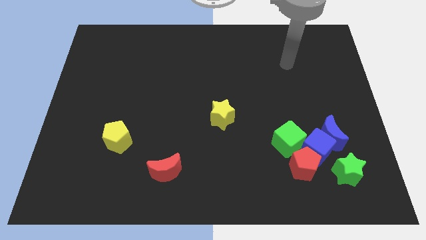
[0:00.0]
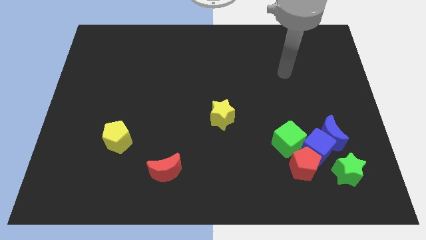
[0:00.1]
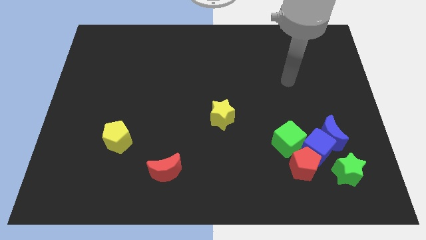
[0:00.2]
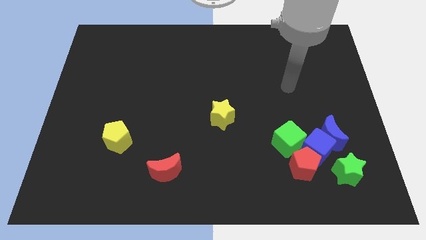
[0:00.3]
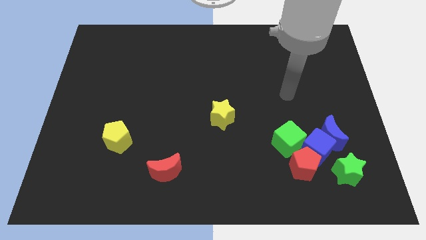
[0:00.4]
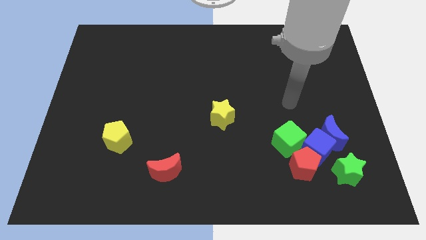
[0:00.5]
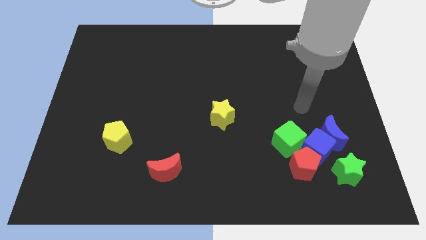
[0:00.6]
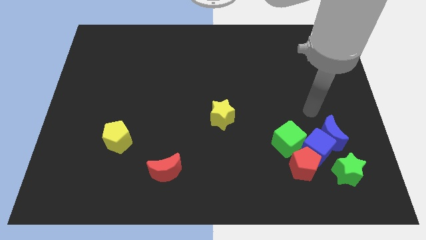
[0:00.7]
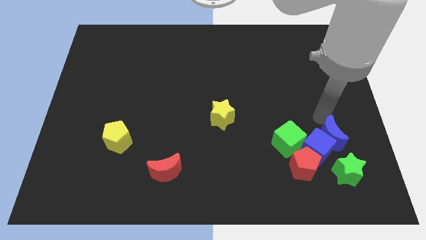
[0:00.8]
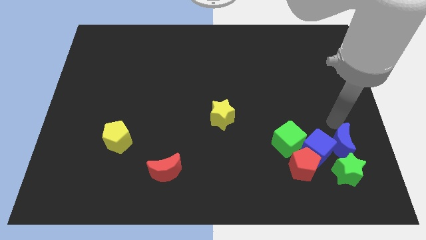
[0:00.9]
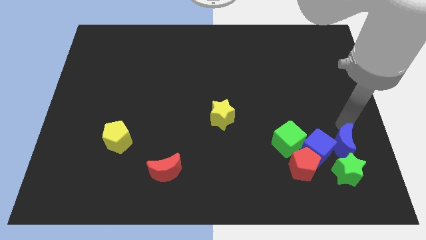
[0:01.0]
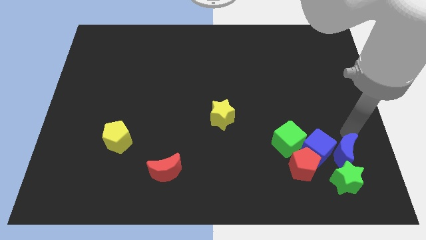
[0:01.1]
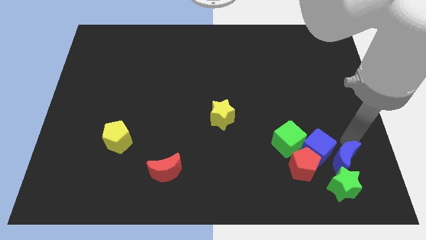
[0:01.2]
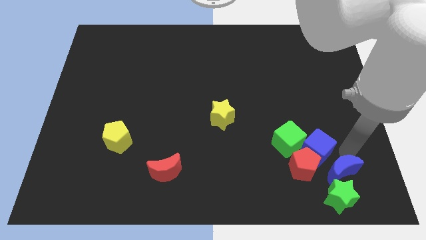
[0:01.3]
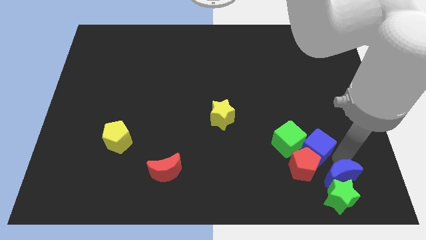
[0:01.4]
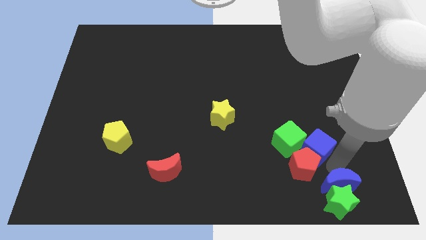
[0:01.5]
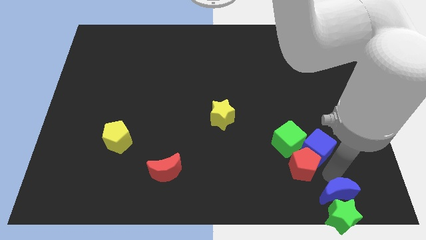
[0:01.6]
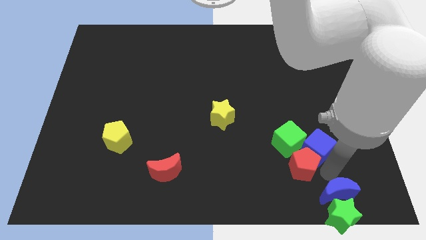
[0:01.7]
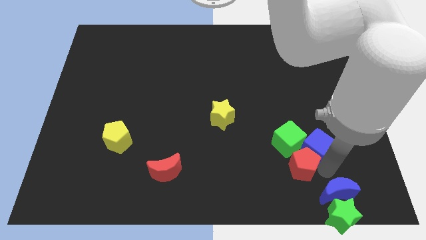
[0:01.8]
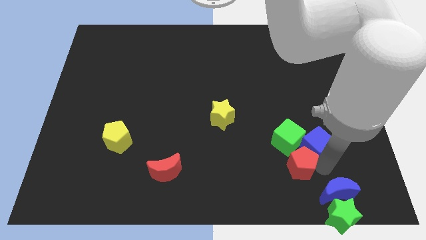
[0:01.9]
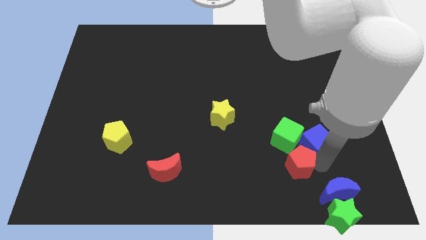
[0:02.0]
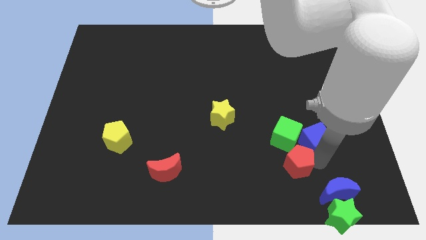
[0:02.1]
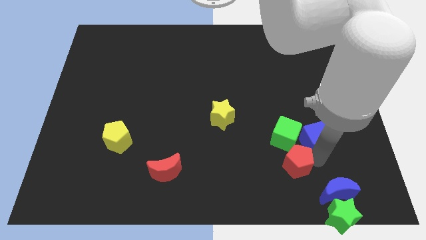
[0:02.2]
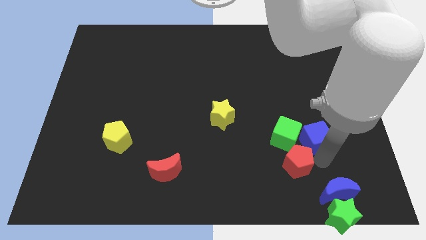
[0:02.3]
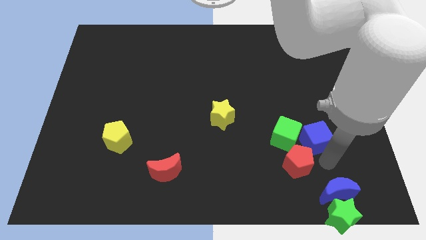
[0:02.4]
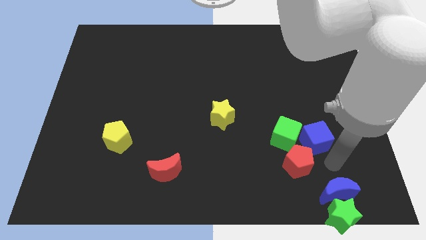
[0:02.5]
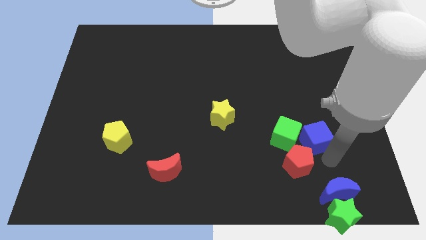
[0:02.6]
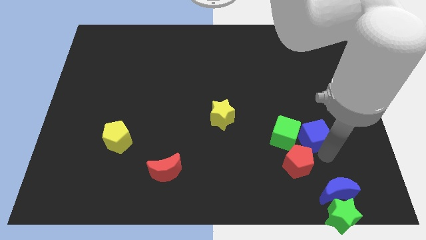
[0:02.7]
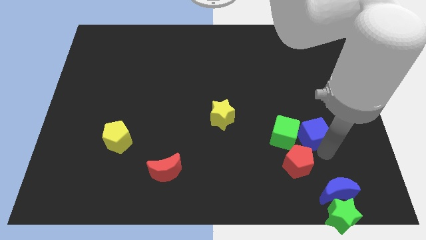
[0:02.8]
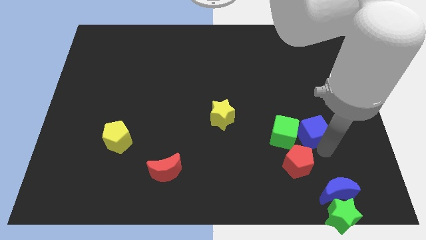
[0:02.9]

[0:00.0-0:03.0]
move the blue cube away from the group

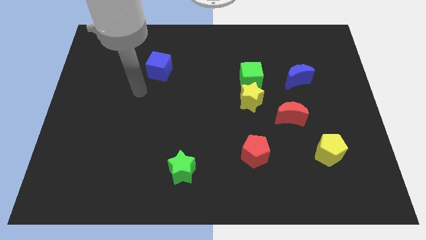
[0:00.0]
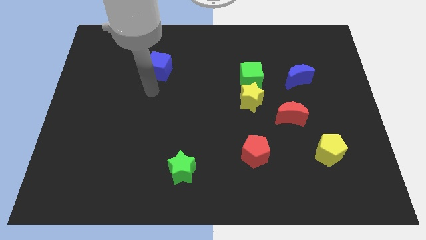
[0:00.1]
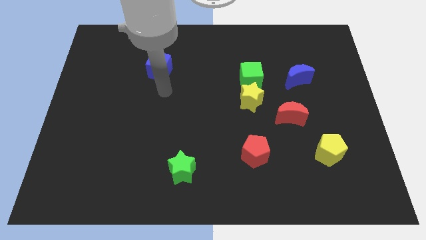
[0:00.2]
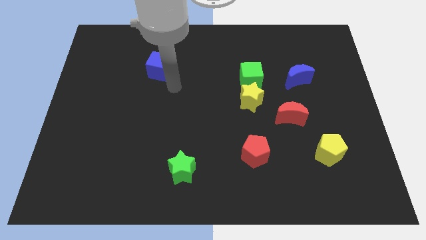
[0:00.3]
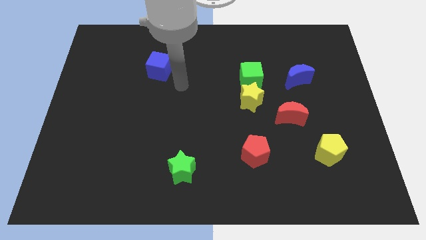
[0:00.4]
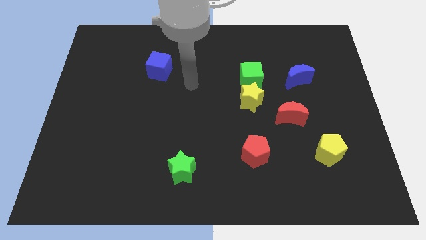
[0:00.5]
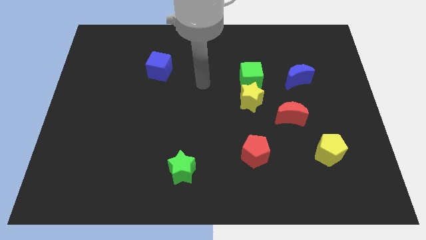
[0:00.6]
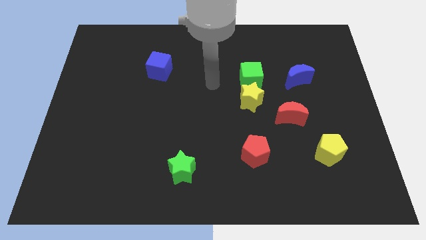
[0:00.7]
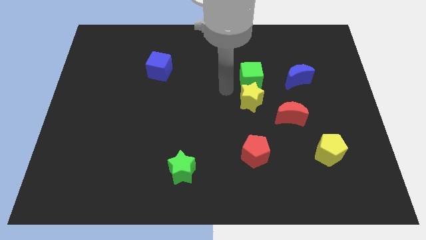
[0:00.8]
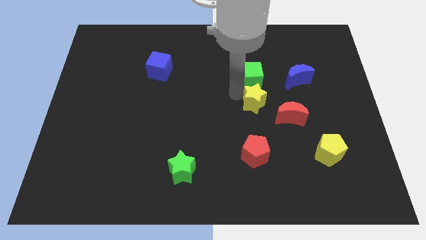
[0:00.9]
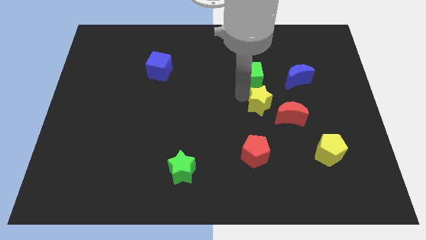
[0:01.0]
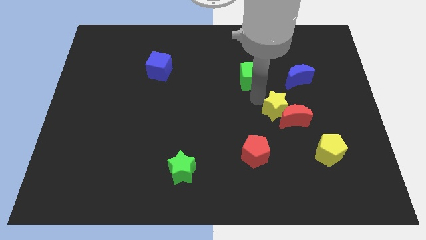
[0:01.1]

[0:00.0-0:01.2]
separate the green cube from the yellow star

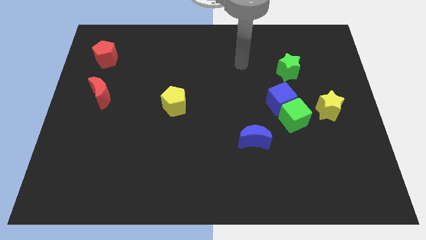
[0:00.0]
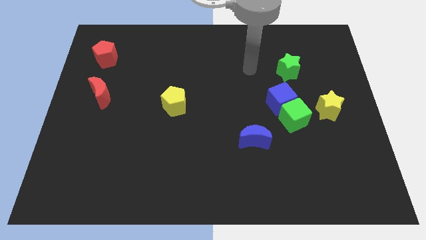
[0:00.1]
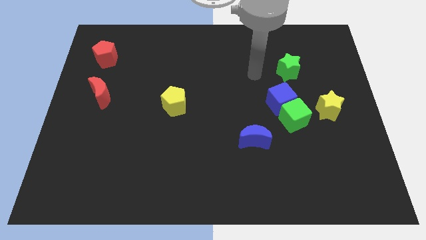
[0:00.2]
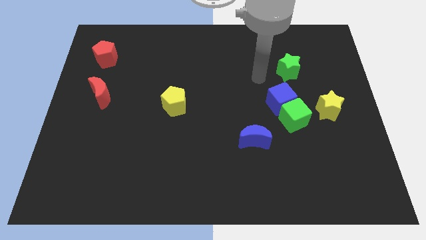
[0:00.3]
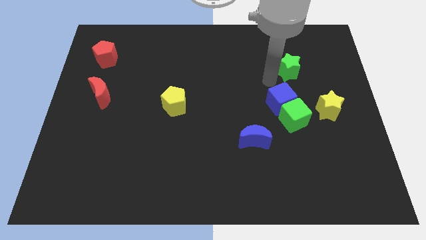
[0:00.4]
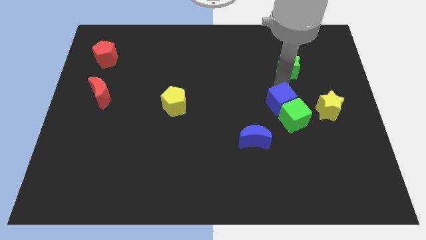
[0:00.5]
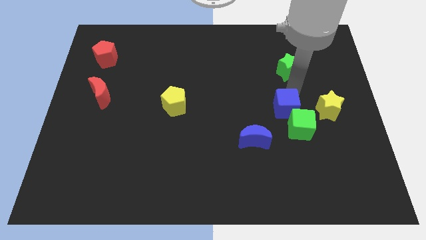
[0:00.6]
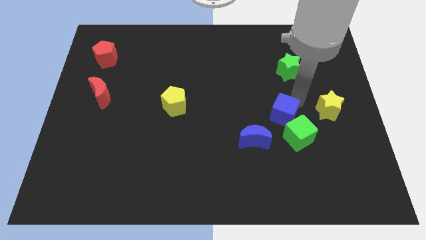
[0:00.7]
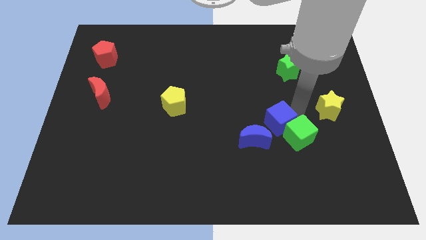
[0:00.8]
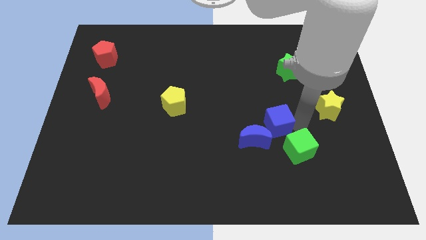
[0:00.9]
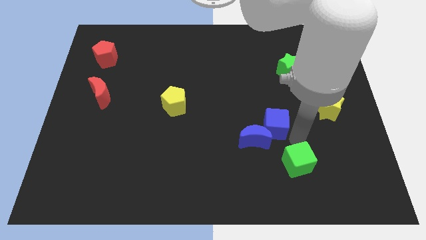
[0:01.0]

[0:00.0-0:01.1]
pull the blue cube apart from the green cube

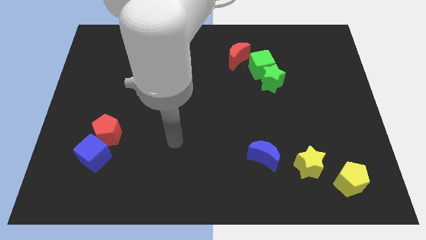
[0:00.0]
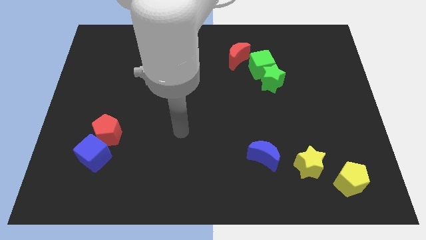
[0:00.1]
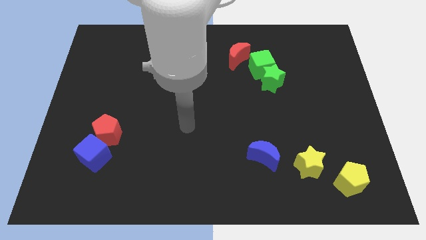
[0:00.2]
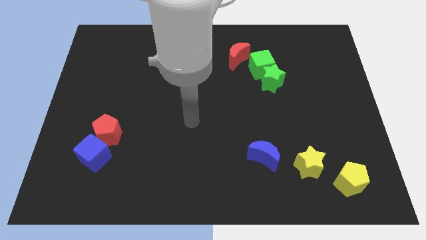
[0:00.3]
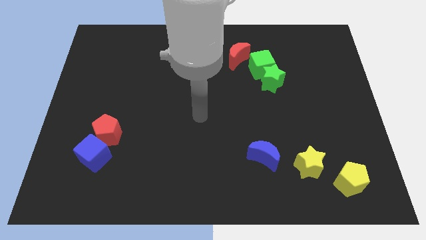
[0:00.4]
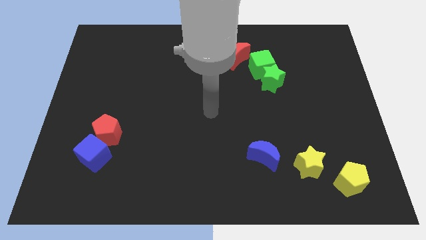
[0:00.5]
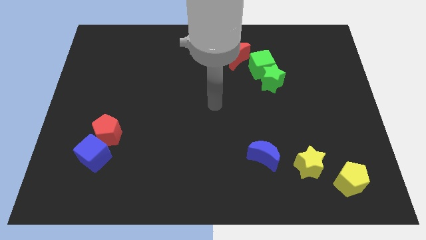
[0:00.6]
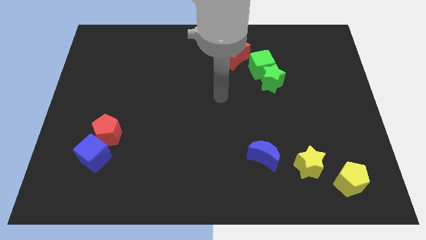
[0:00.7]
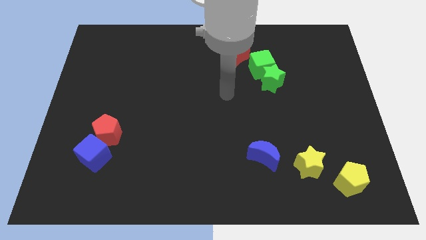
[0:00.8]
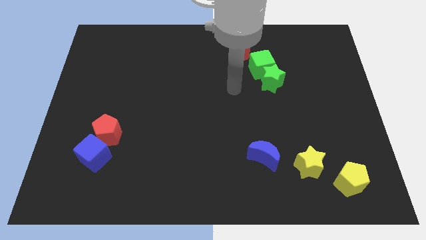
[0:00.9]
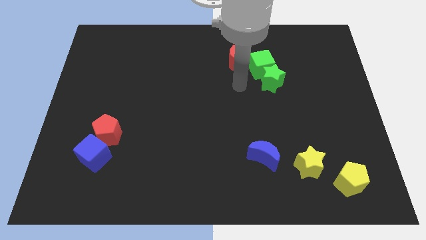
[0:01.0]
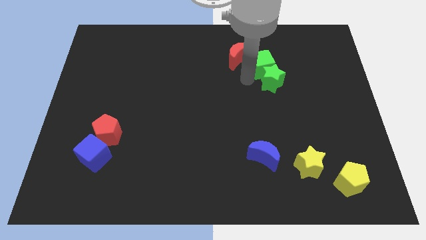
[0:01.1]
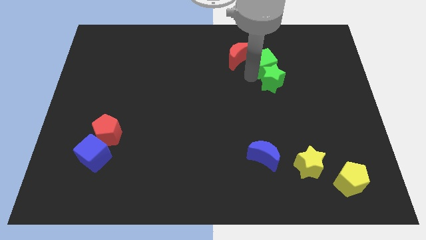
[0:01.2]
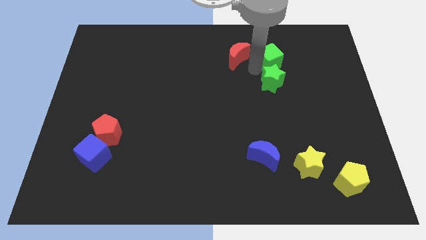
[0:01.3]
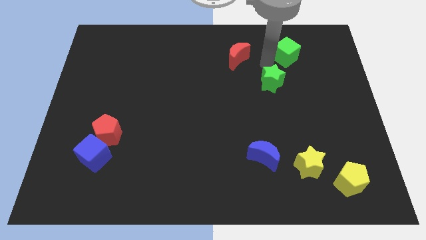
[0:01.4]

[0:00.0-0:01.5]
move the green star away from the green cube

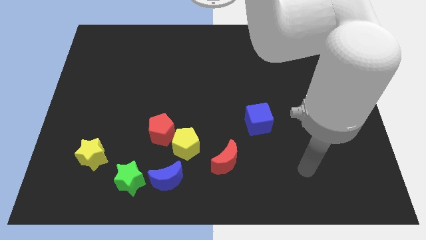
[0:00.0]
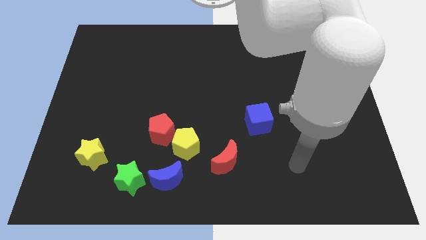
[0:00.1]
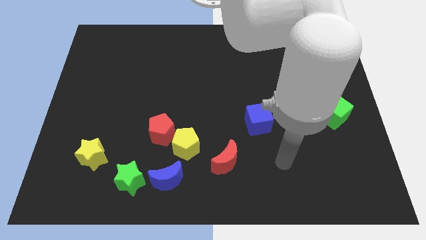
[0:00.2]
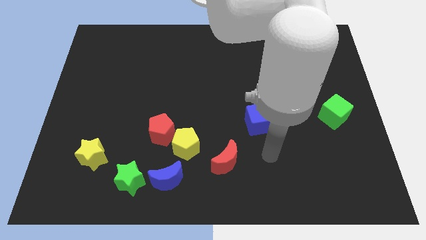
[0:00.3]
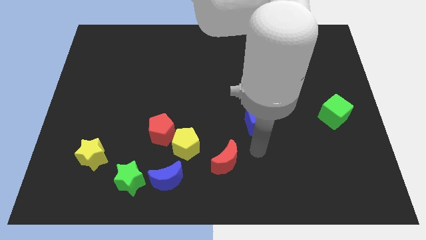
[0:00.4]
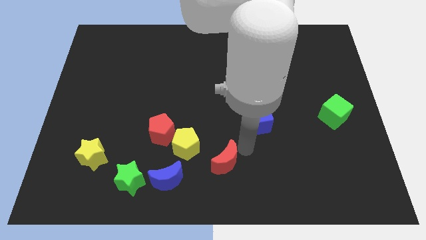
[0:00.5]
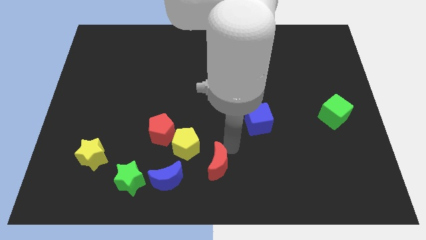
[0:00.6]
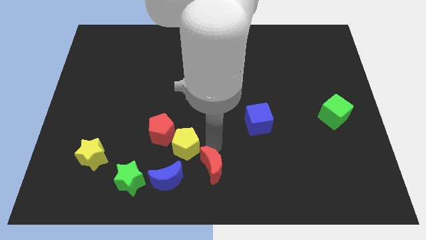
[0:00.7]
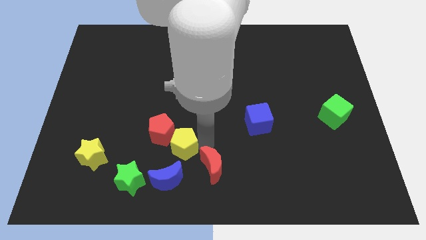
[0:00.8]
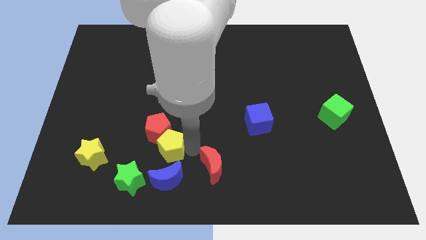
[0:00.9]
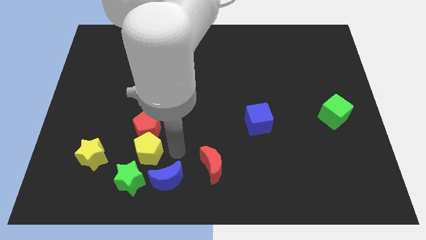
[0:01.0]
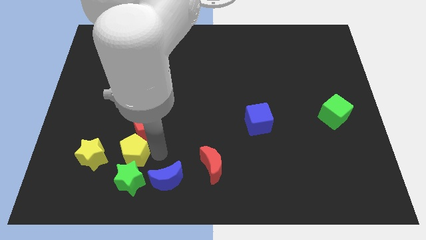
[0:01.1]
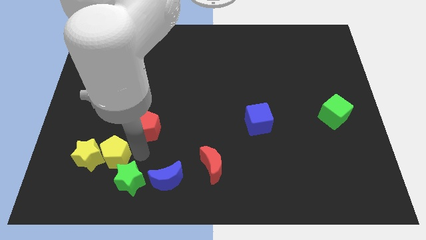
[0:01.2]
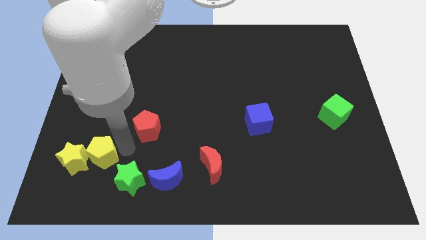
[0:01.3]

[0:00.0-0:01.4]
move the red pentagon away from the yellow pentagon

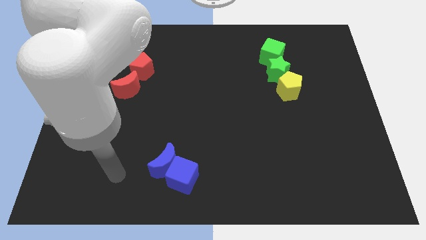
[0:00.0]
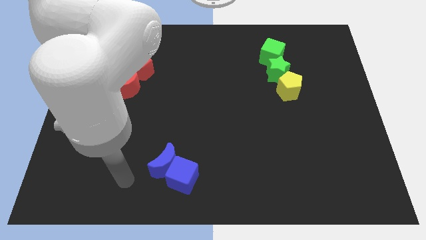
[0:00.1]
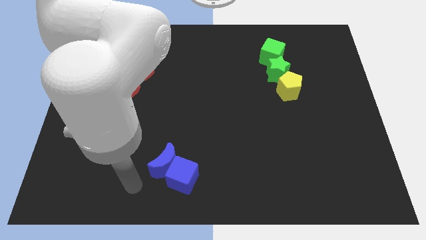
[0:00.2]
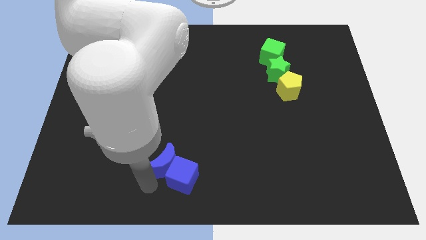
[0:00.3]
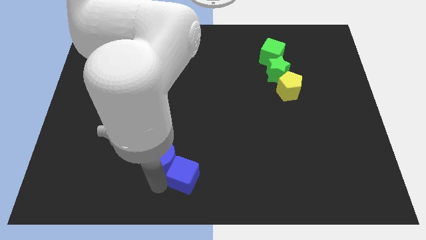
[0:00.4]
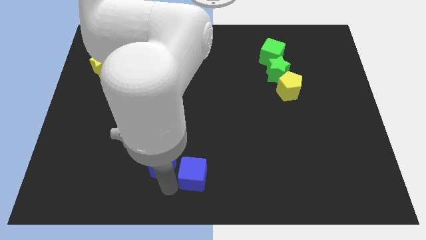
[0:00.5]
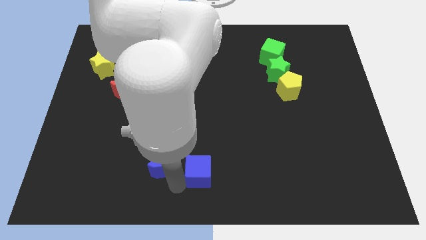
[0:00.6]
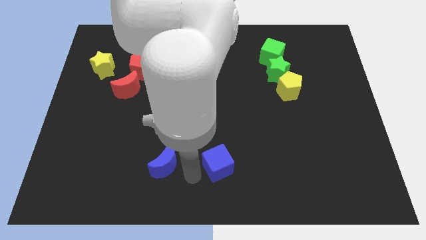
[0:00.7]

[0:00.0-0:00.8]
pull the blue moon apart from the blue cube

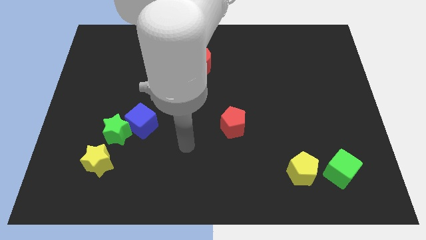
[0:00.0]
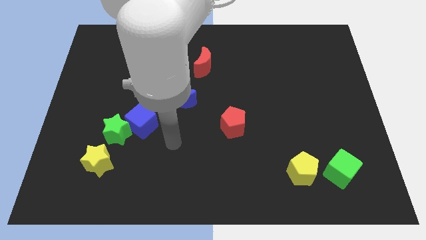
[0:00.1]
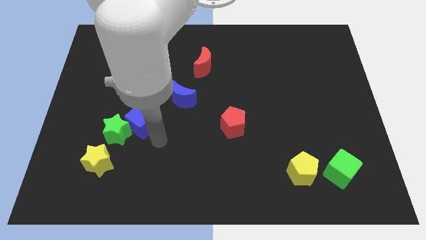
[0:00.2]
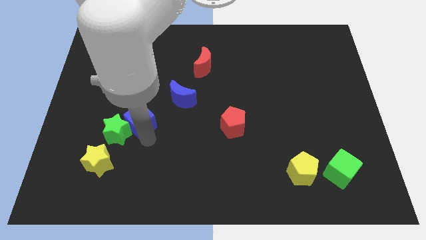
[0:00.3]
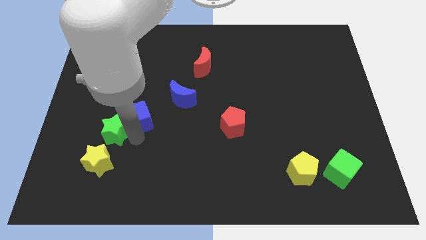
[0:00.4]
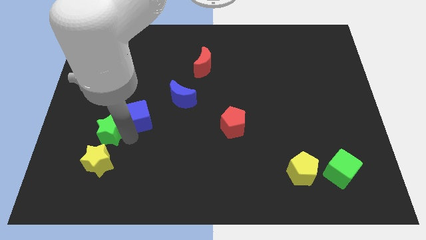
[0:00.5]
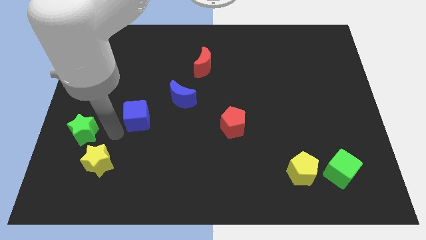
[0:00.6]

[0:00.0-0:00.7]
pull the blue cube apart from the green star
